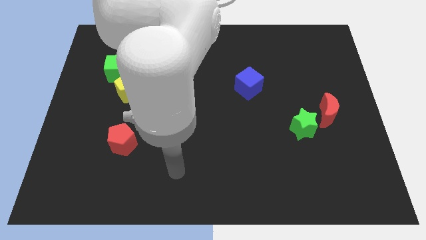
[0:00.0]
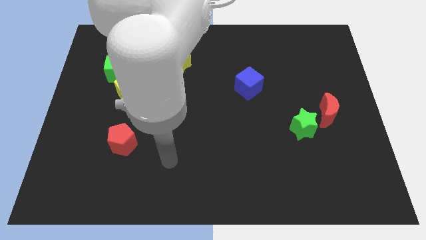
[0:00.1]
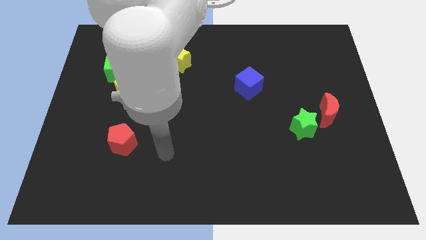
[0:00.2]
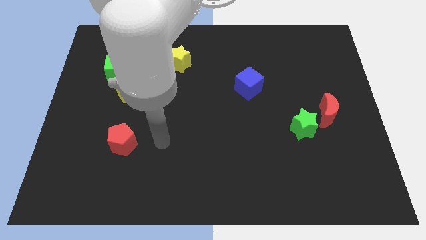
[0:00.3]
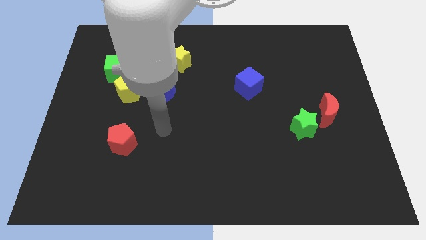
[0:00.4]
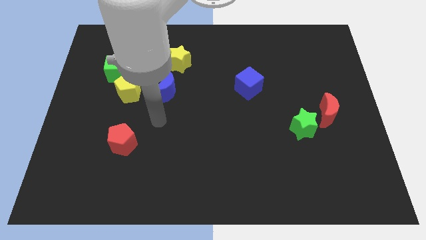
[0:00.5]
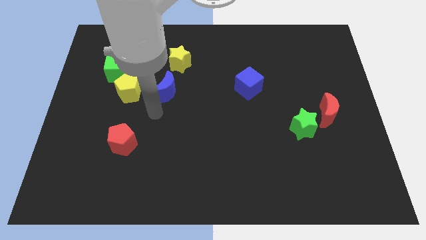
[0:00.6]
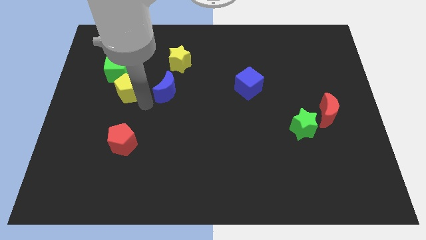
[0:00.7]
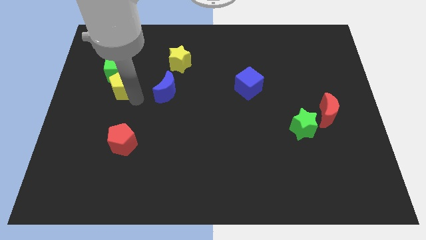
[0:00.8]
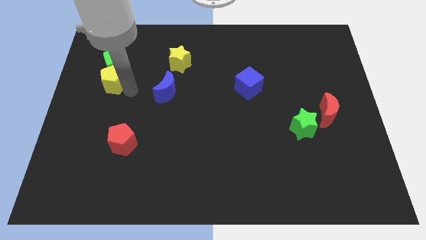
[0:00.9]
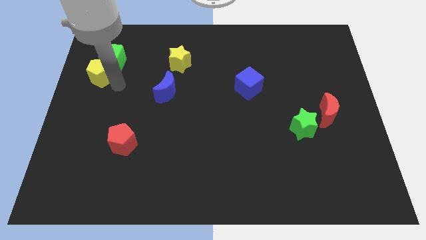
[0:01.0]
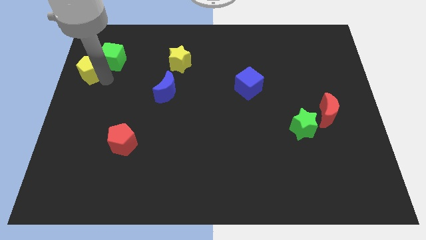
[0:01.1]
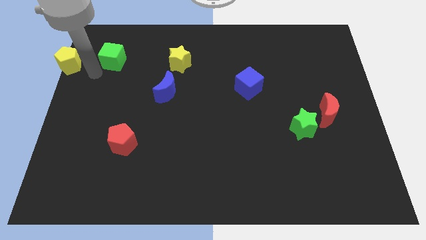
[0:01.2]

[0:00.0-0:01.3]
move the green cube away from the yellow pentagon

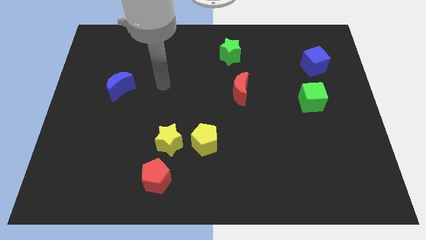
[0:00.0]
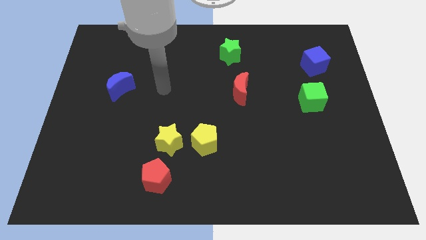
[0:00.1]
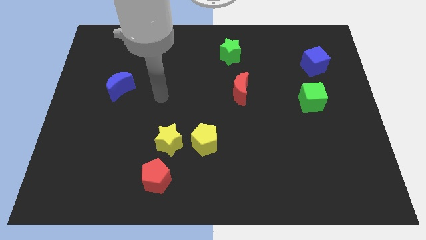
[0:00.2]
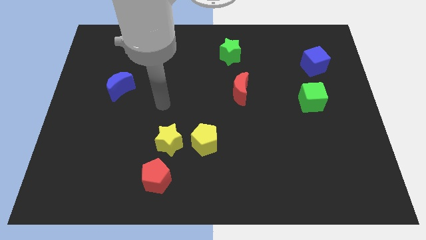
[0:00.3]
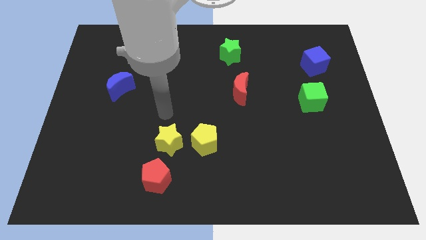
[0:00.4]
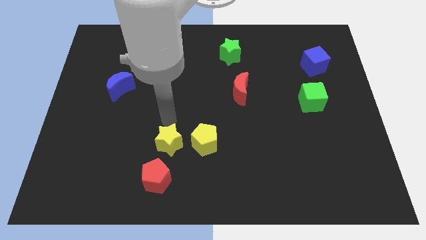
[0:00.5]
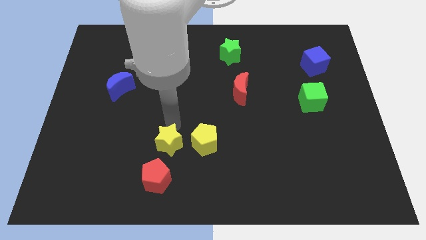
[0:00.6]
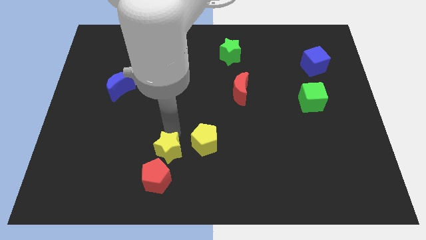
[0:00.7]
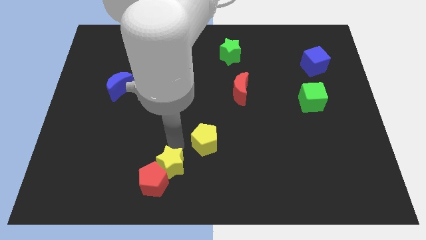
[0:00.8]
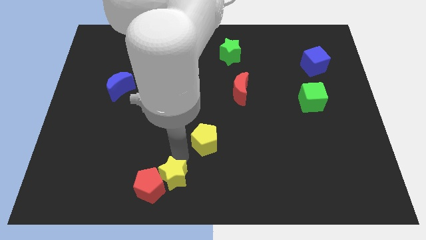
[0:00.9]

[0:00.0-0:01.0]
move the yellow pentagon away from the yellow star

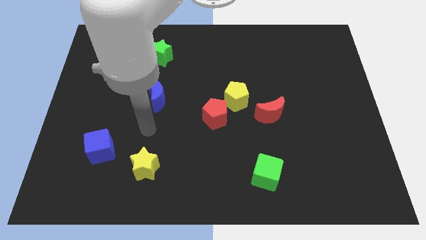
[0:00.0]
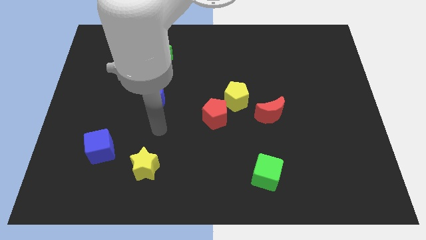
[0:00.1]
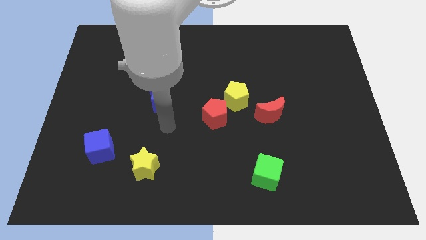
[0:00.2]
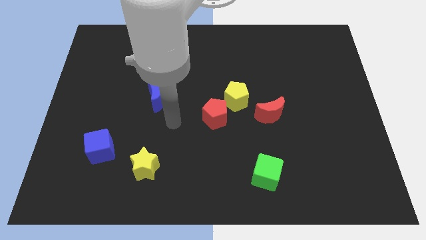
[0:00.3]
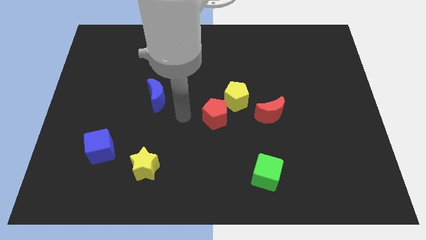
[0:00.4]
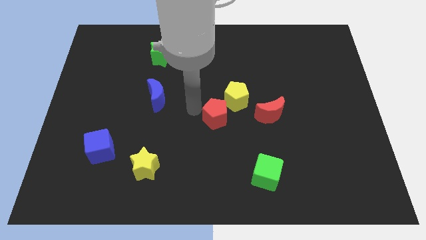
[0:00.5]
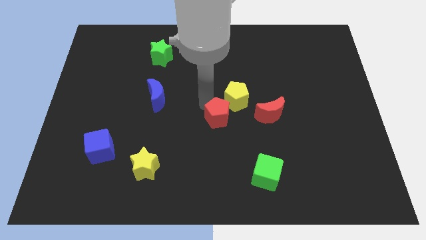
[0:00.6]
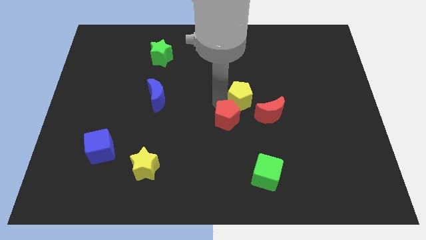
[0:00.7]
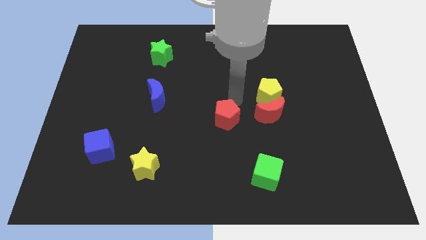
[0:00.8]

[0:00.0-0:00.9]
separate the red pentagon from the yellow pentagon

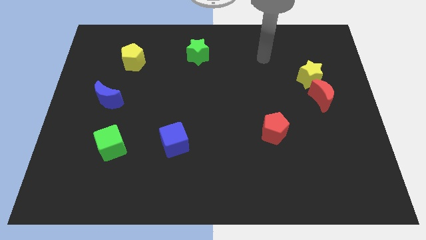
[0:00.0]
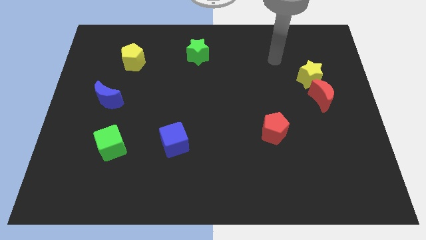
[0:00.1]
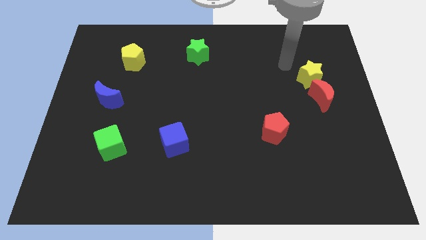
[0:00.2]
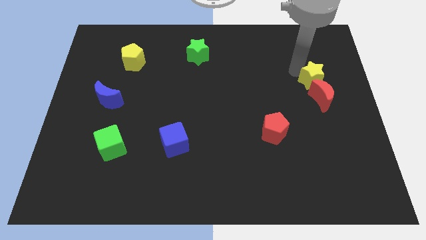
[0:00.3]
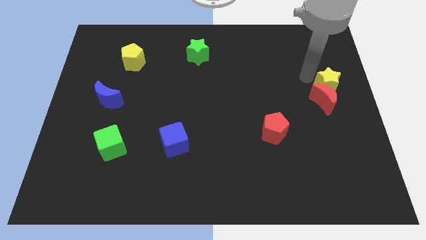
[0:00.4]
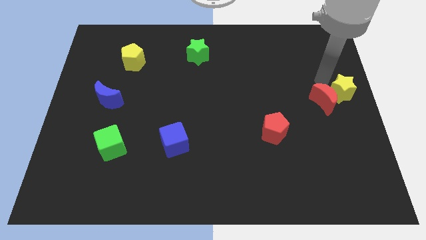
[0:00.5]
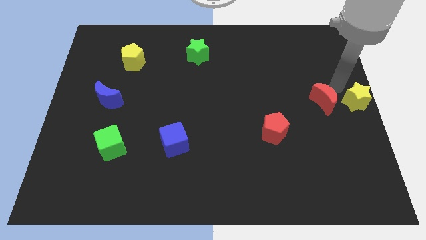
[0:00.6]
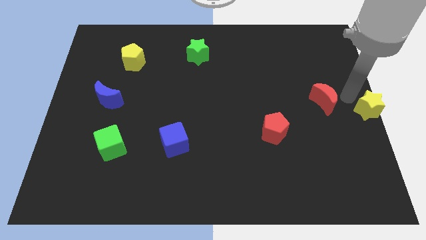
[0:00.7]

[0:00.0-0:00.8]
pull the red moon apart from the yellow star

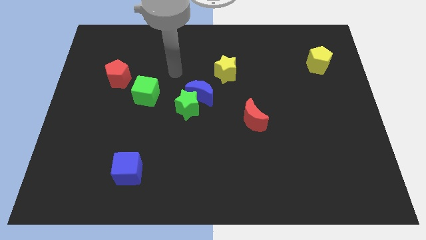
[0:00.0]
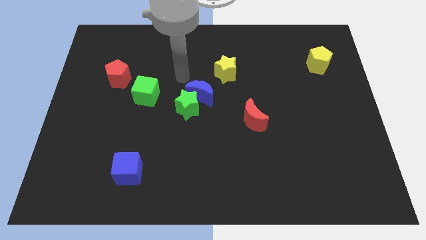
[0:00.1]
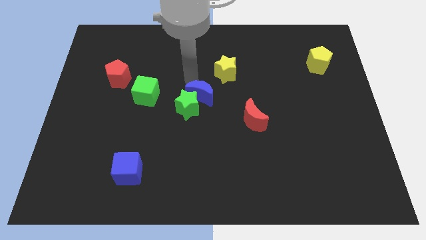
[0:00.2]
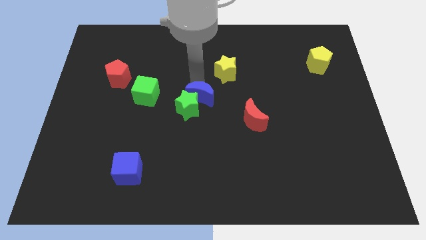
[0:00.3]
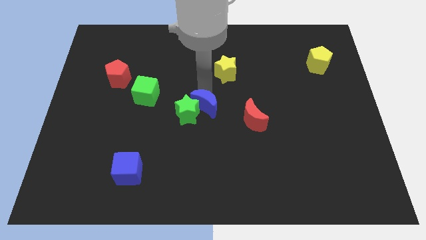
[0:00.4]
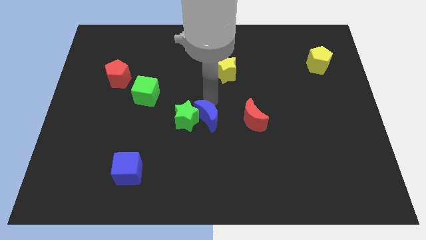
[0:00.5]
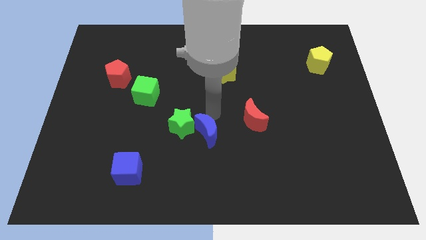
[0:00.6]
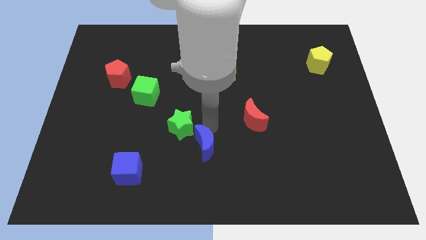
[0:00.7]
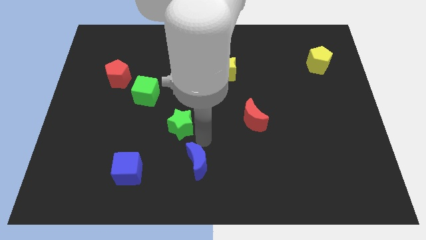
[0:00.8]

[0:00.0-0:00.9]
move the green star away from the blue moon

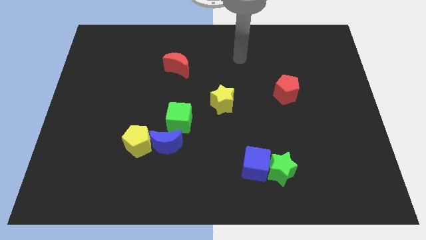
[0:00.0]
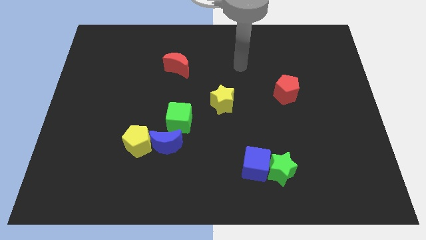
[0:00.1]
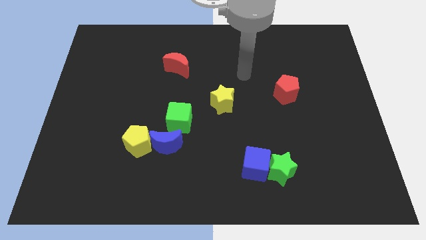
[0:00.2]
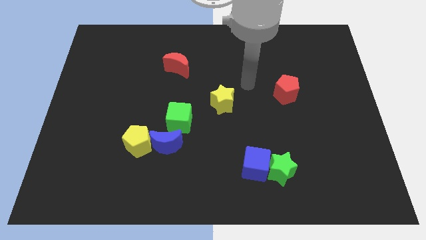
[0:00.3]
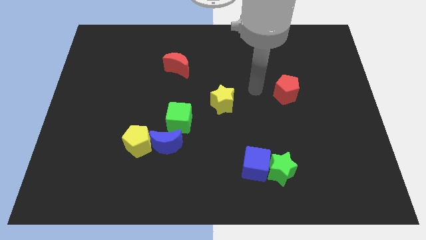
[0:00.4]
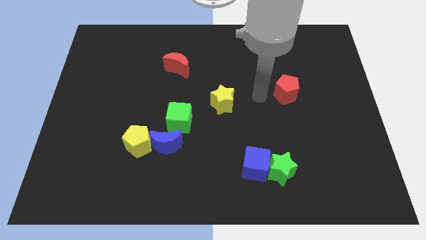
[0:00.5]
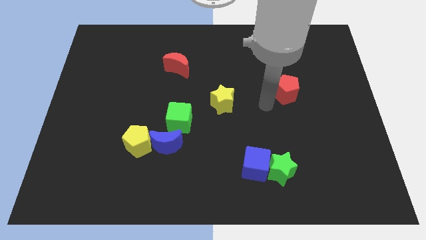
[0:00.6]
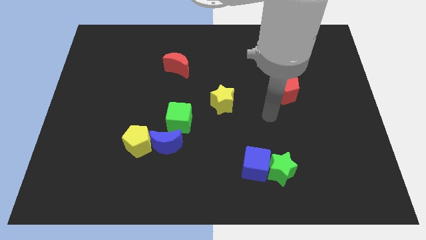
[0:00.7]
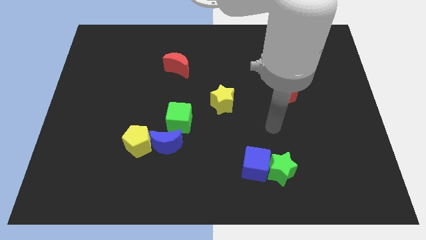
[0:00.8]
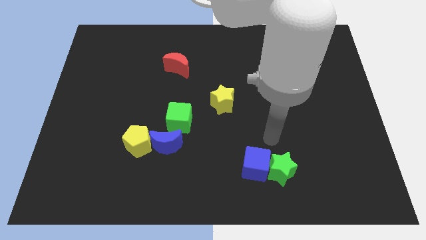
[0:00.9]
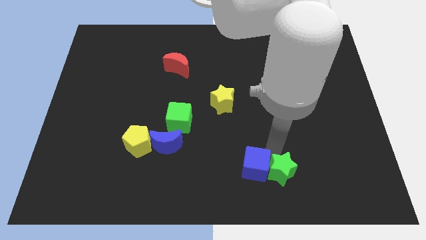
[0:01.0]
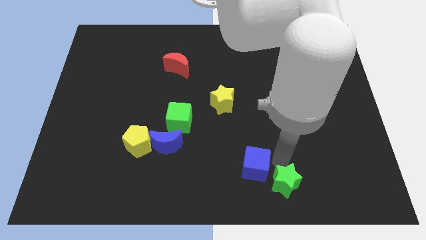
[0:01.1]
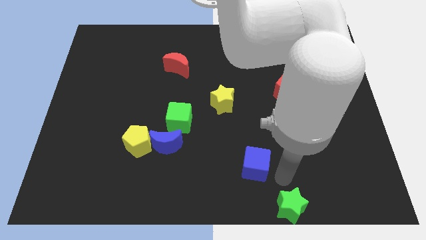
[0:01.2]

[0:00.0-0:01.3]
separate the blue cube from the green star

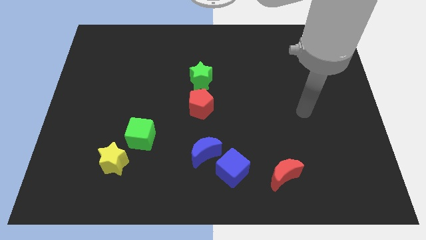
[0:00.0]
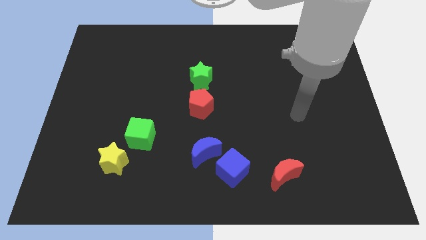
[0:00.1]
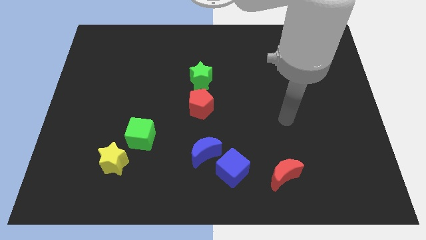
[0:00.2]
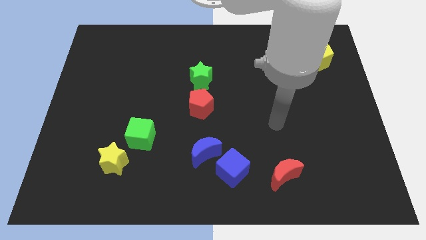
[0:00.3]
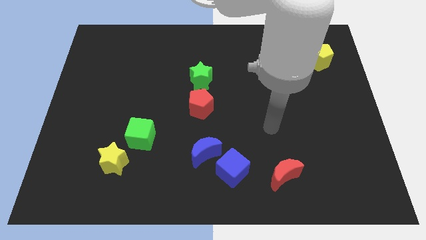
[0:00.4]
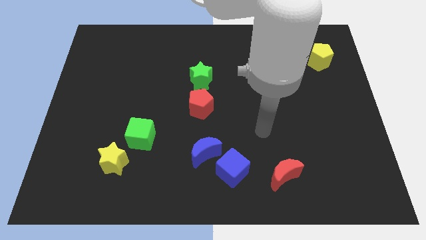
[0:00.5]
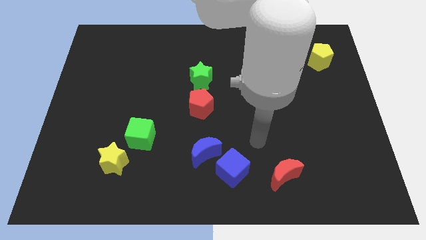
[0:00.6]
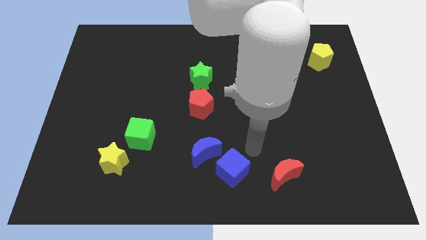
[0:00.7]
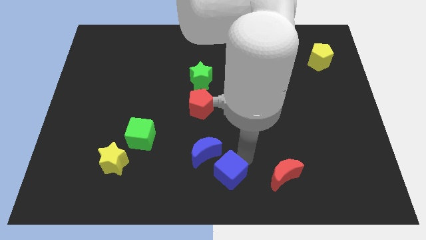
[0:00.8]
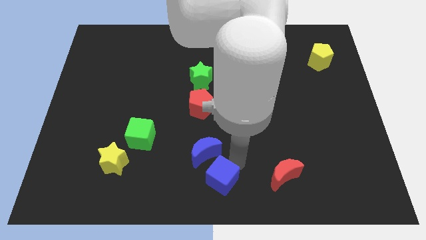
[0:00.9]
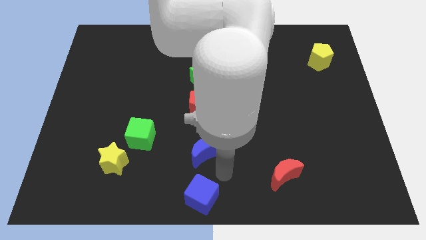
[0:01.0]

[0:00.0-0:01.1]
separate the blue moon from the blue cube

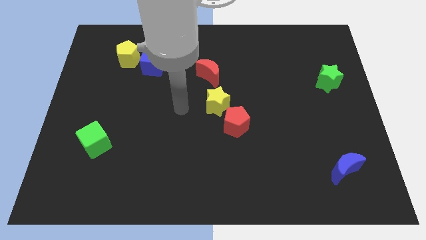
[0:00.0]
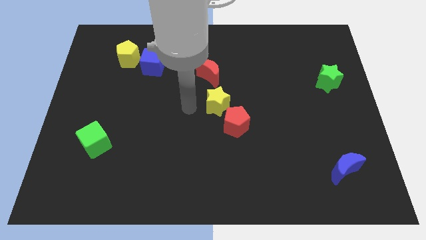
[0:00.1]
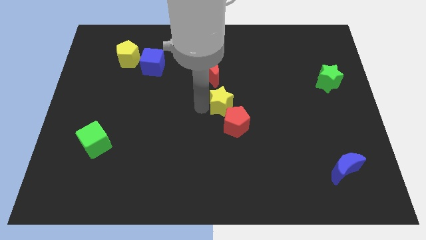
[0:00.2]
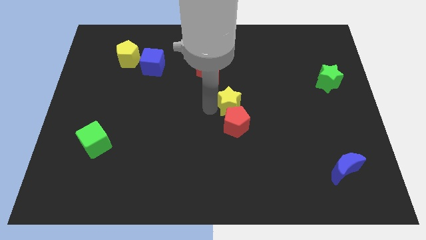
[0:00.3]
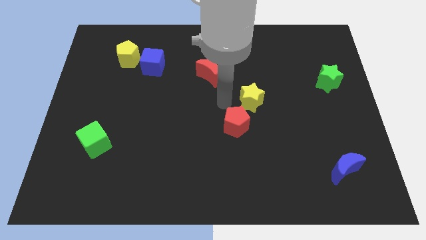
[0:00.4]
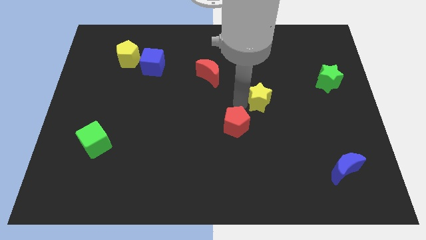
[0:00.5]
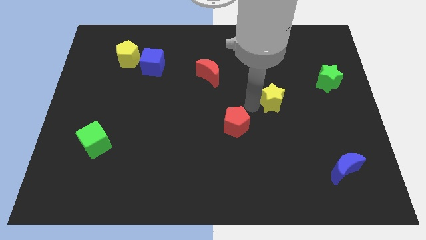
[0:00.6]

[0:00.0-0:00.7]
move the red pentagon away from the yellow star

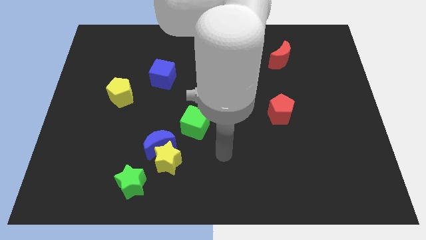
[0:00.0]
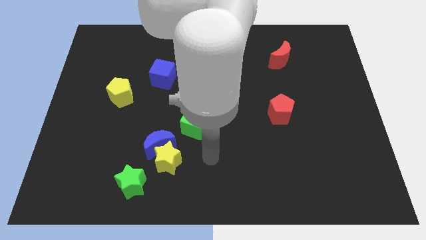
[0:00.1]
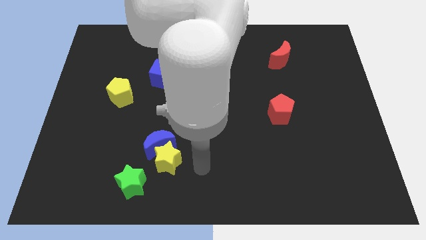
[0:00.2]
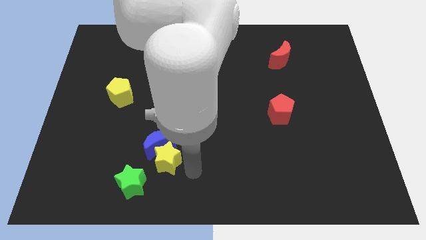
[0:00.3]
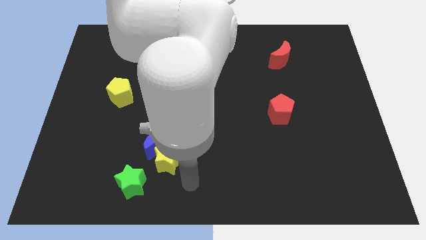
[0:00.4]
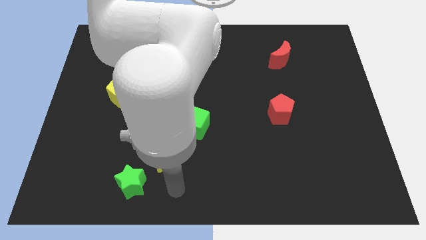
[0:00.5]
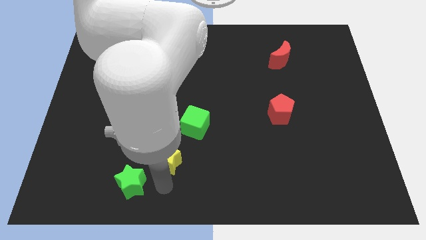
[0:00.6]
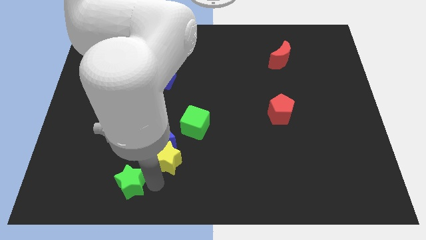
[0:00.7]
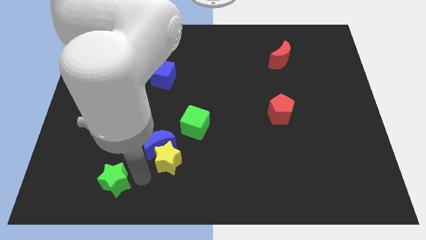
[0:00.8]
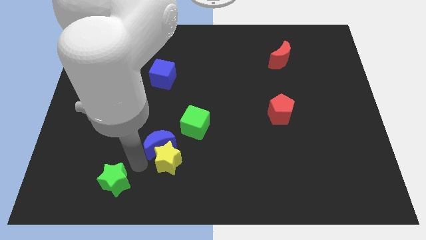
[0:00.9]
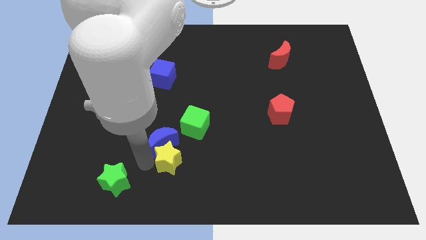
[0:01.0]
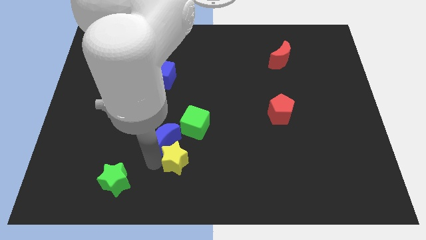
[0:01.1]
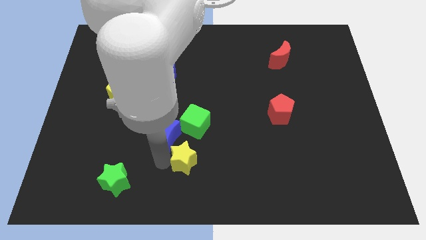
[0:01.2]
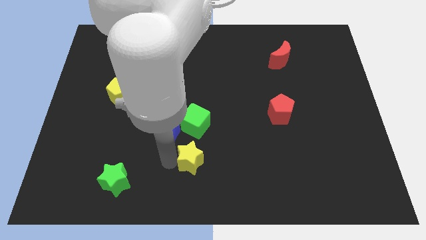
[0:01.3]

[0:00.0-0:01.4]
separate the yellow star from the blue moon and green star
